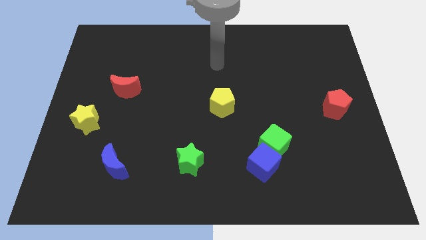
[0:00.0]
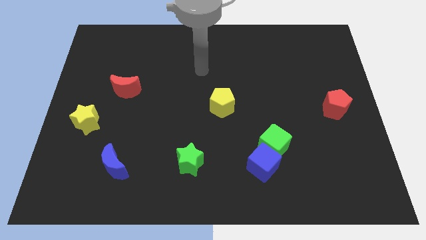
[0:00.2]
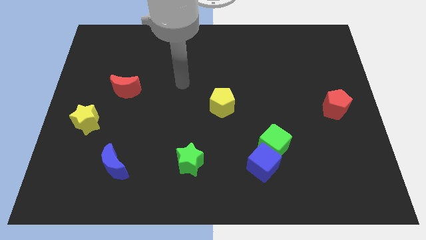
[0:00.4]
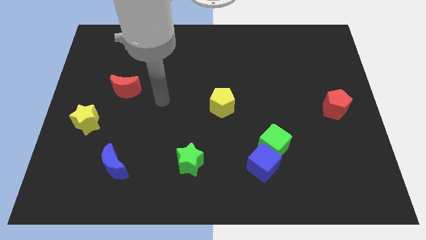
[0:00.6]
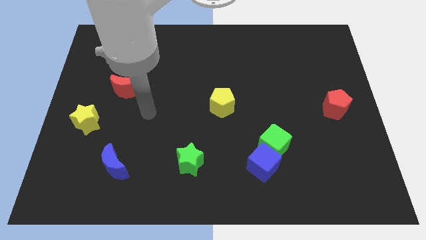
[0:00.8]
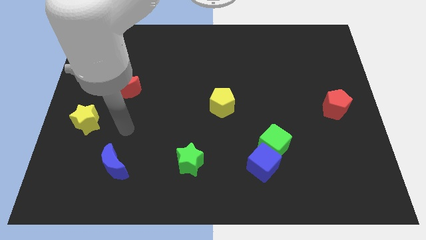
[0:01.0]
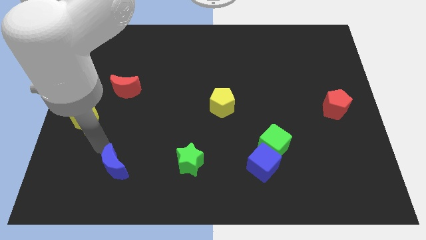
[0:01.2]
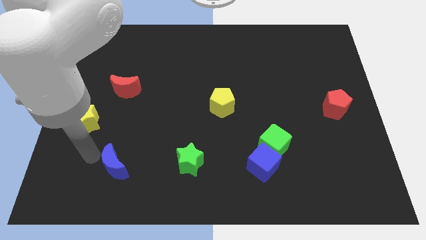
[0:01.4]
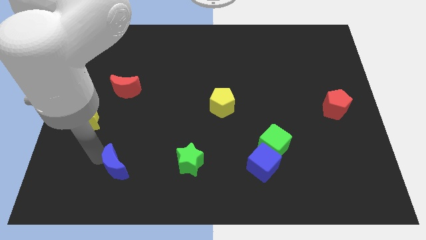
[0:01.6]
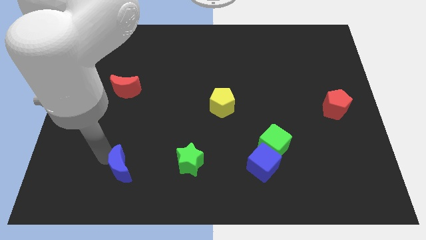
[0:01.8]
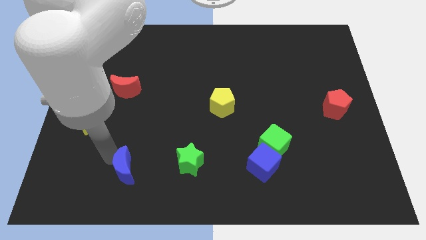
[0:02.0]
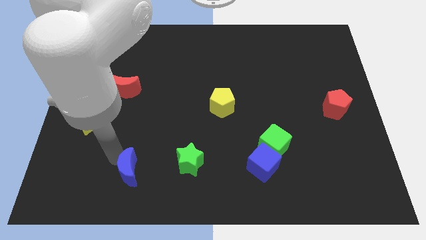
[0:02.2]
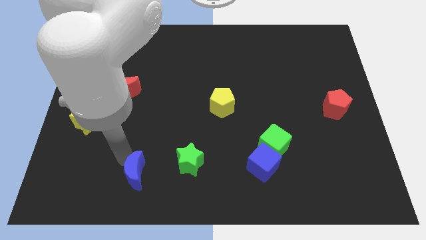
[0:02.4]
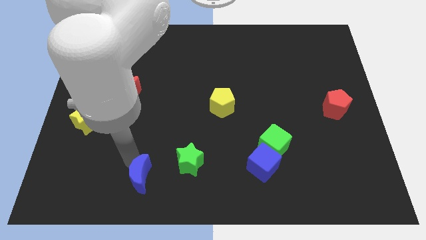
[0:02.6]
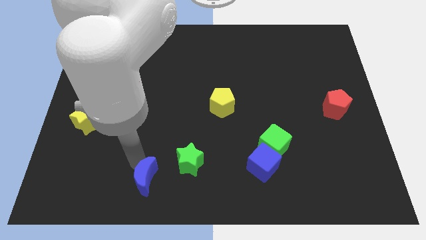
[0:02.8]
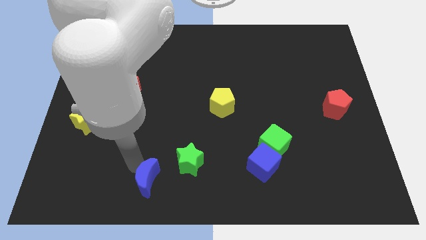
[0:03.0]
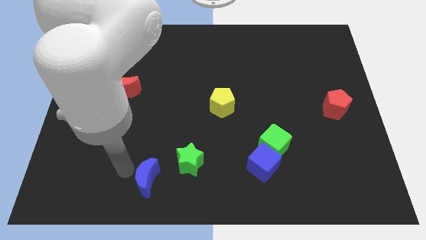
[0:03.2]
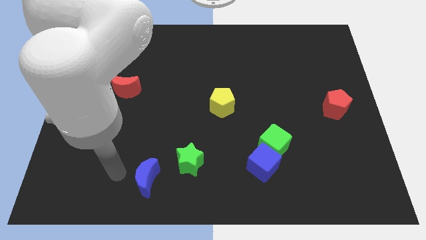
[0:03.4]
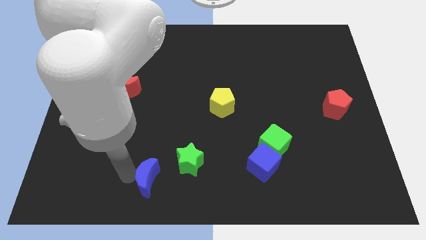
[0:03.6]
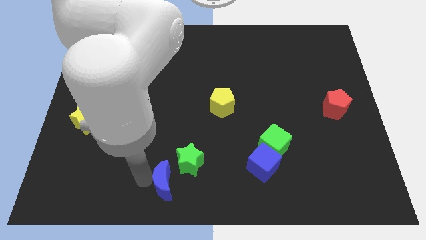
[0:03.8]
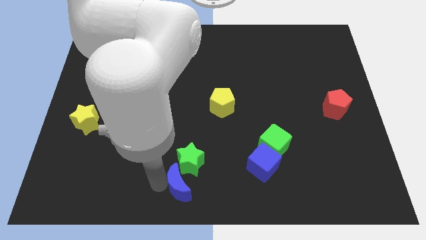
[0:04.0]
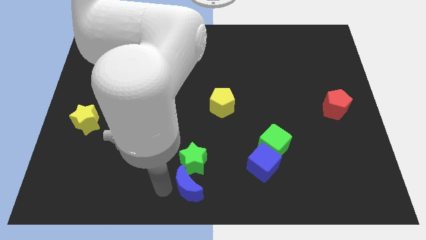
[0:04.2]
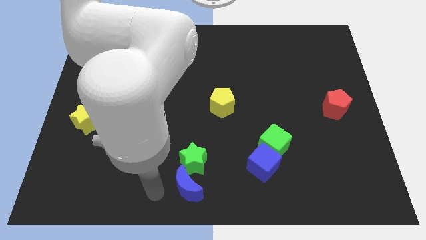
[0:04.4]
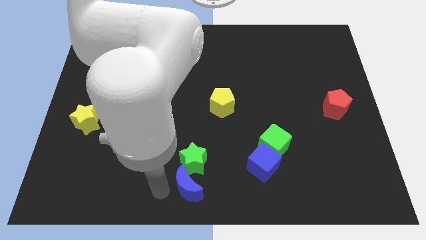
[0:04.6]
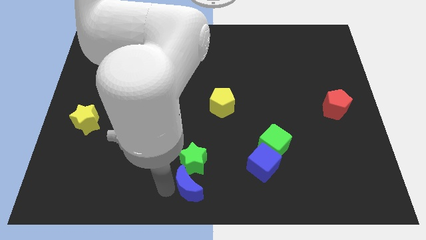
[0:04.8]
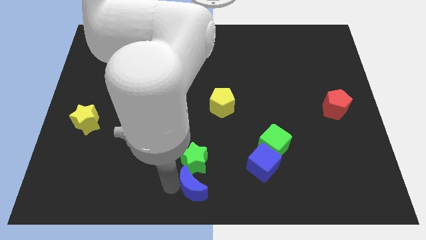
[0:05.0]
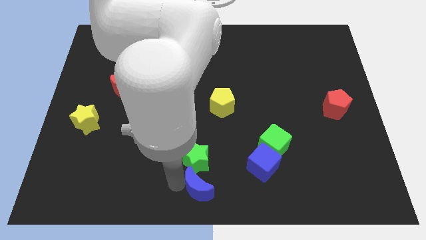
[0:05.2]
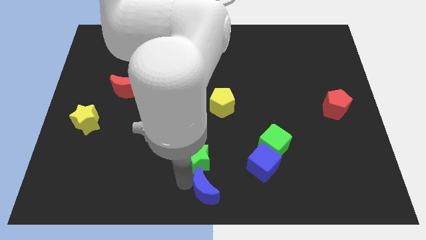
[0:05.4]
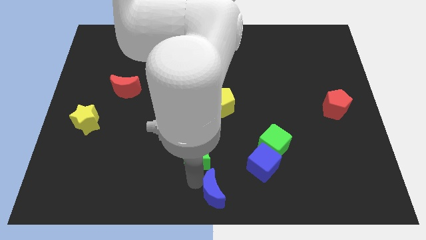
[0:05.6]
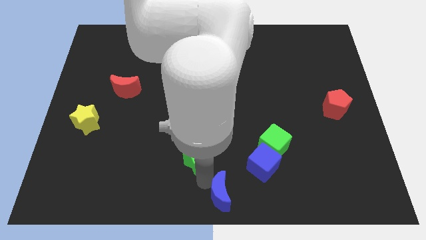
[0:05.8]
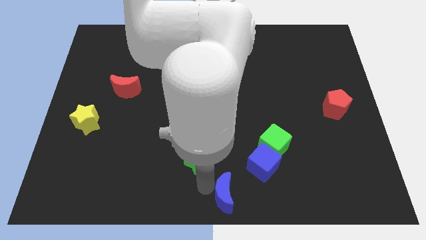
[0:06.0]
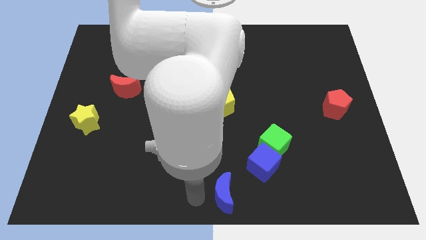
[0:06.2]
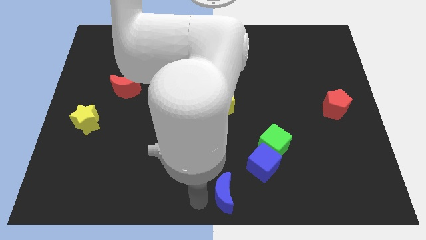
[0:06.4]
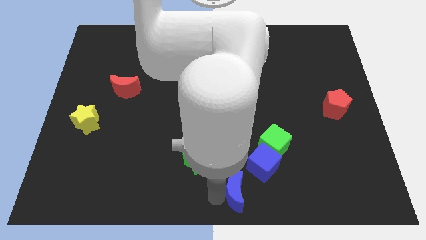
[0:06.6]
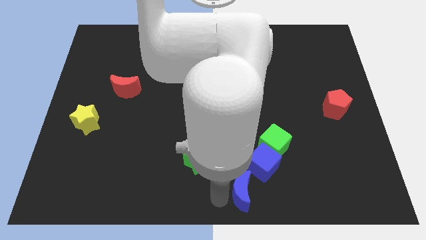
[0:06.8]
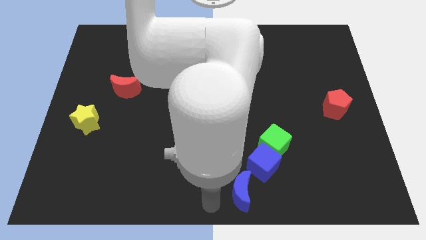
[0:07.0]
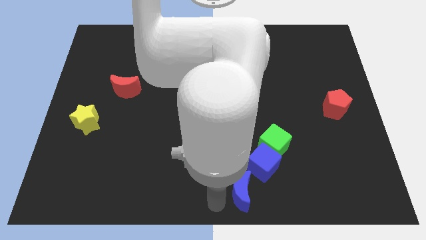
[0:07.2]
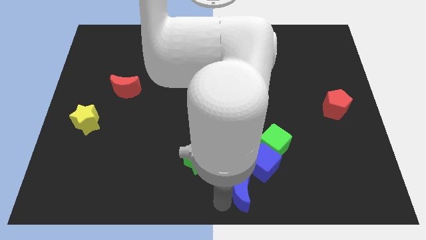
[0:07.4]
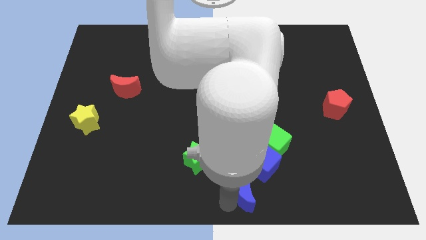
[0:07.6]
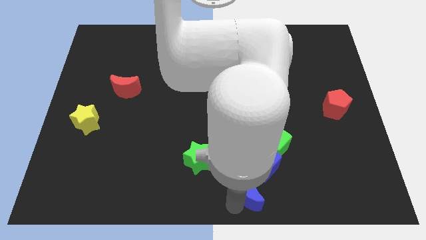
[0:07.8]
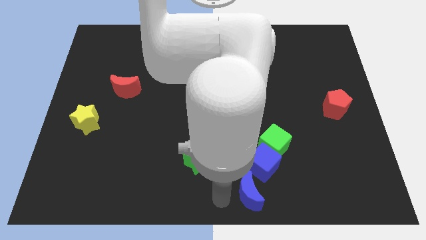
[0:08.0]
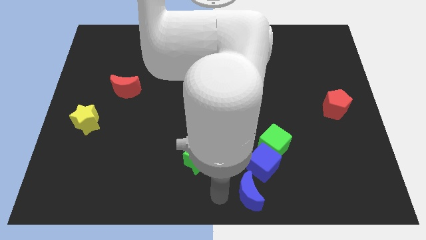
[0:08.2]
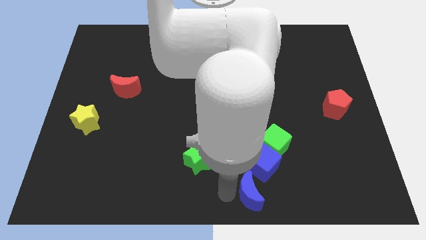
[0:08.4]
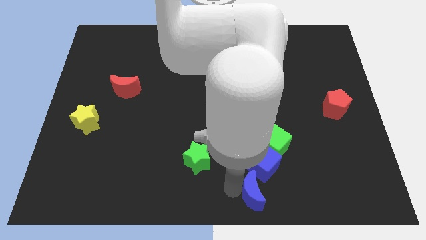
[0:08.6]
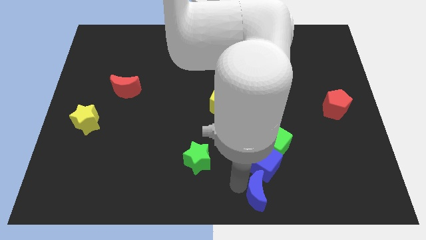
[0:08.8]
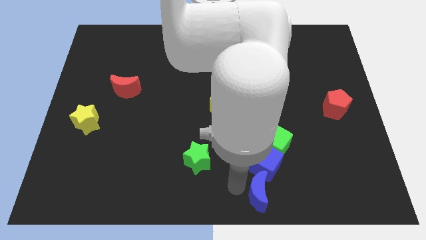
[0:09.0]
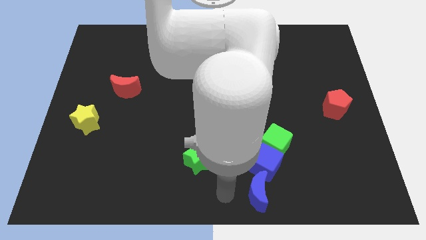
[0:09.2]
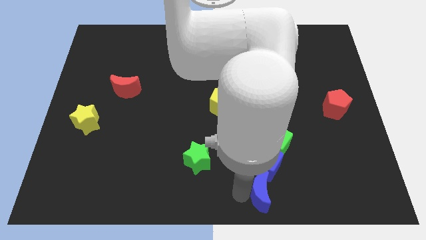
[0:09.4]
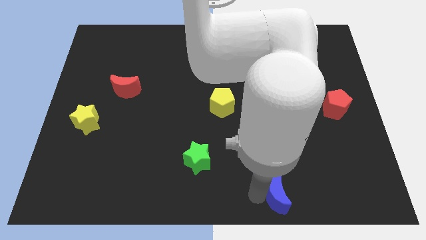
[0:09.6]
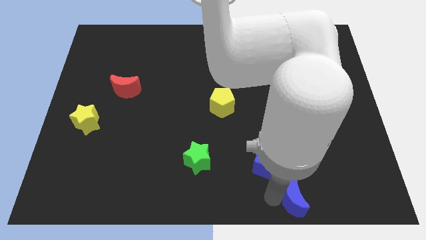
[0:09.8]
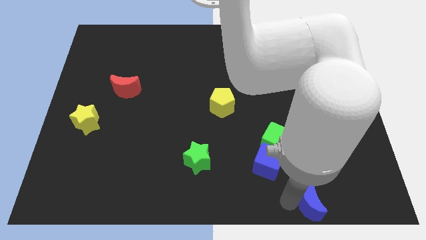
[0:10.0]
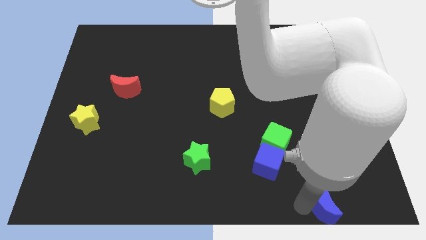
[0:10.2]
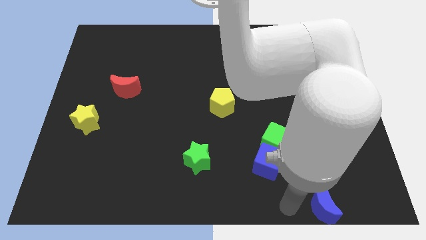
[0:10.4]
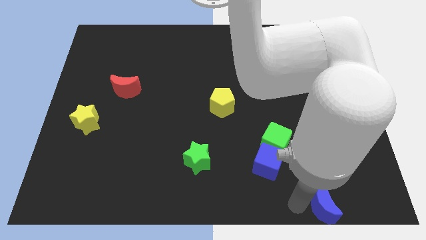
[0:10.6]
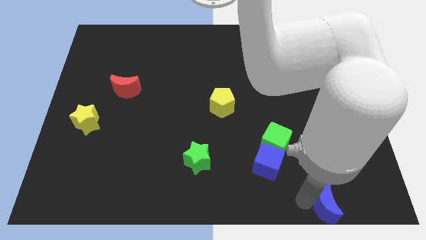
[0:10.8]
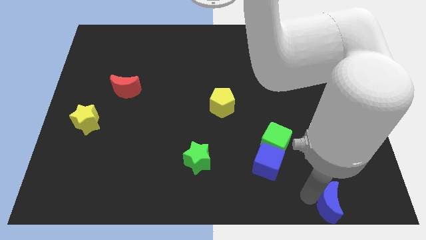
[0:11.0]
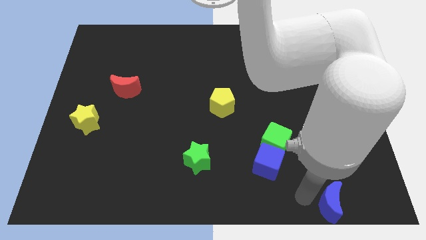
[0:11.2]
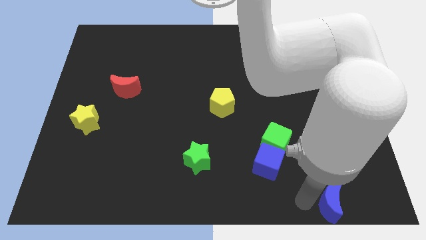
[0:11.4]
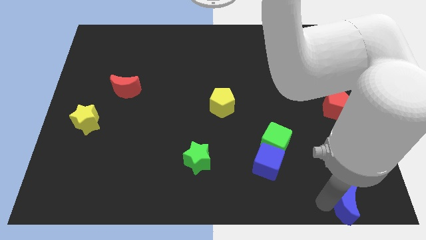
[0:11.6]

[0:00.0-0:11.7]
put the blue moon to the lower right corner

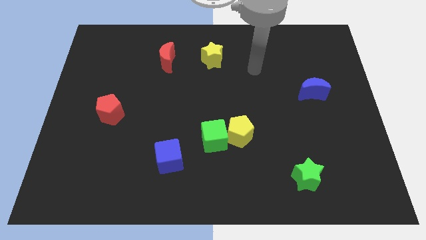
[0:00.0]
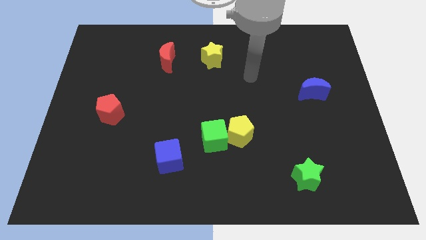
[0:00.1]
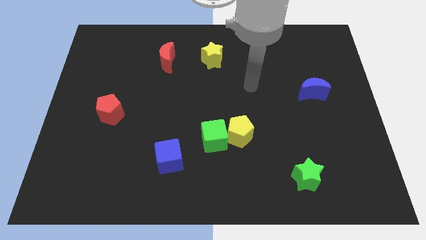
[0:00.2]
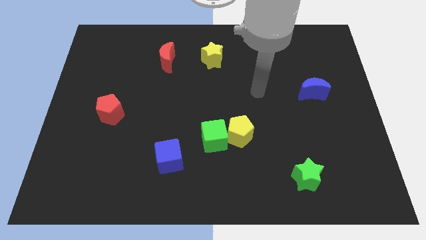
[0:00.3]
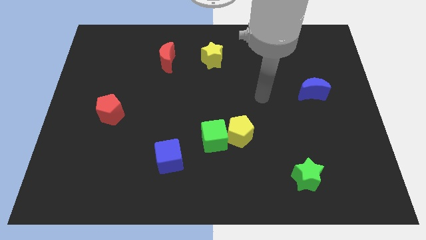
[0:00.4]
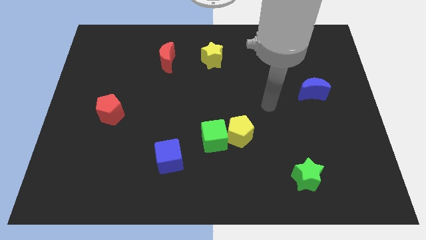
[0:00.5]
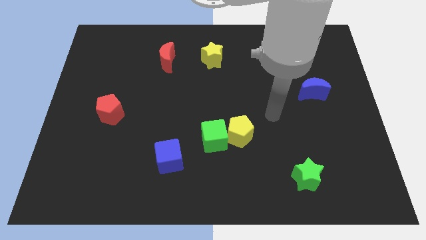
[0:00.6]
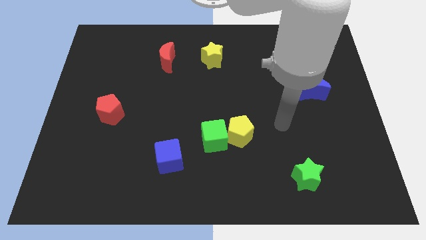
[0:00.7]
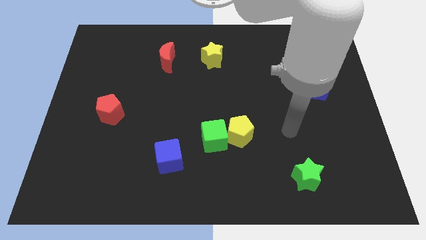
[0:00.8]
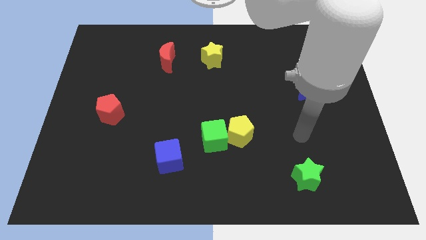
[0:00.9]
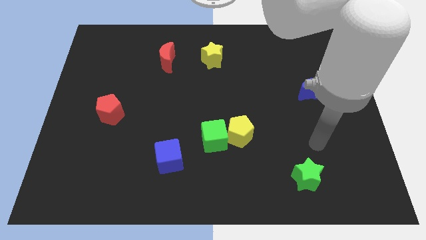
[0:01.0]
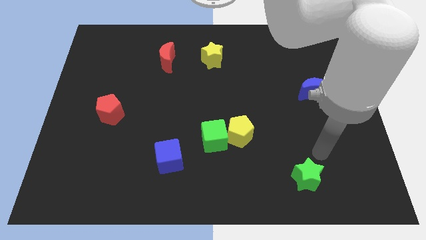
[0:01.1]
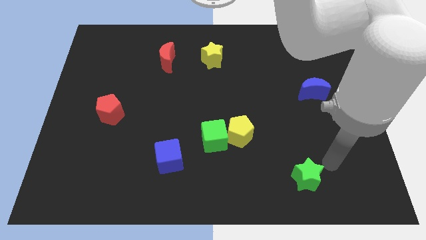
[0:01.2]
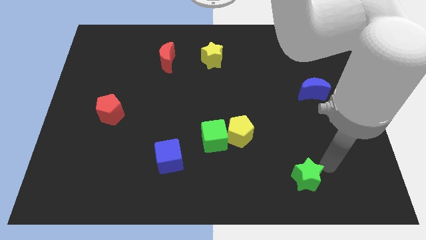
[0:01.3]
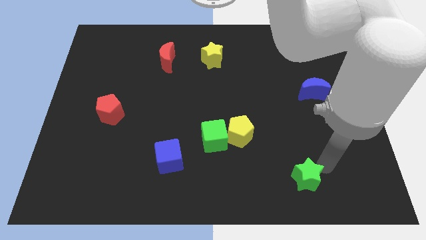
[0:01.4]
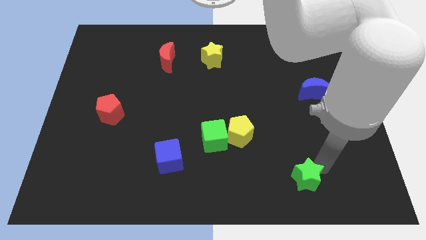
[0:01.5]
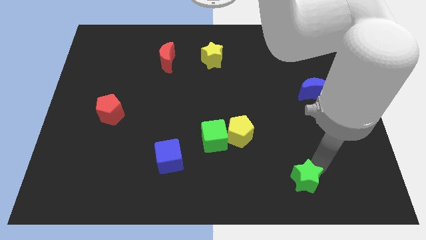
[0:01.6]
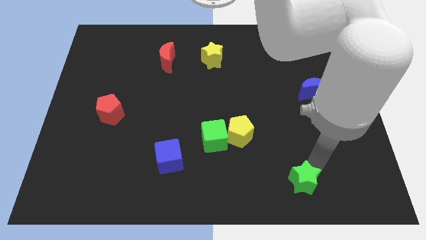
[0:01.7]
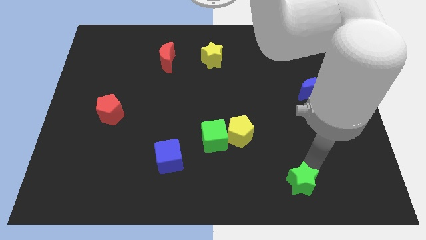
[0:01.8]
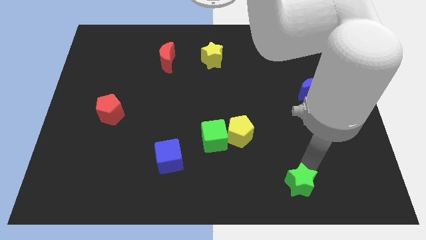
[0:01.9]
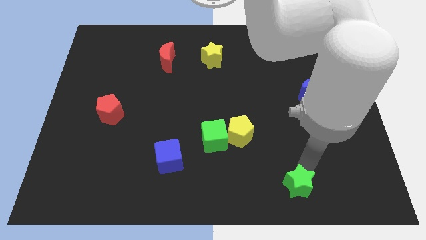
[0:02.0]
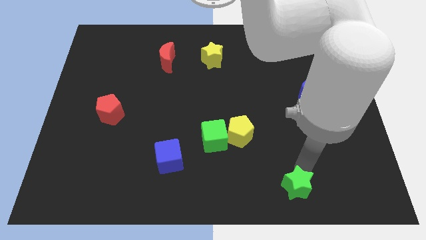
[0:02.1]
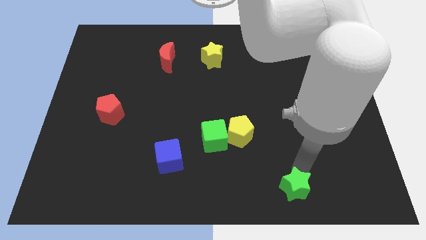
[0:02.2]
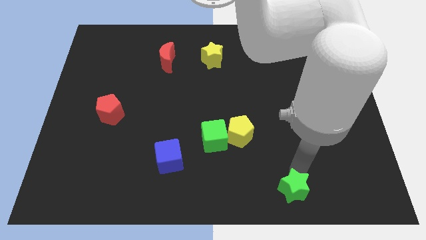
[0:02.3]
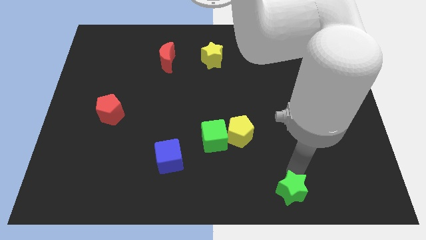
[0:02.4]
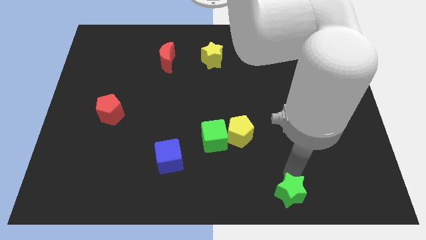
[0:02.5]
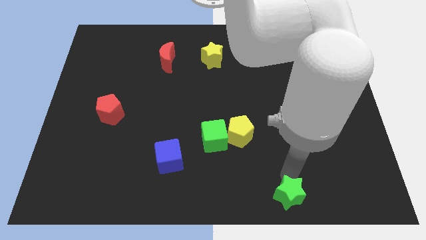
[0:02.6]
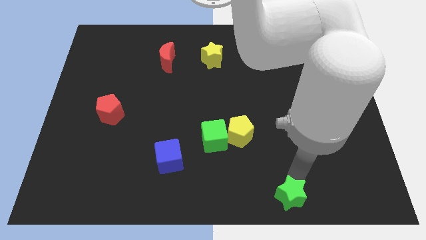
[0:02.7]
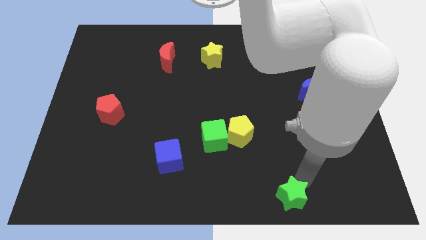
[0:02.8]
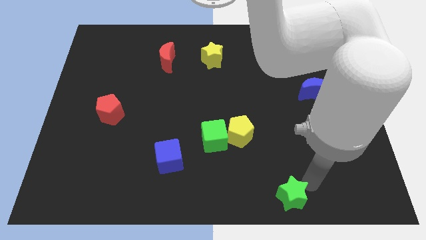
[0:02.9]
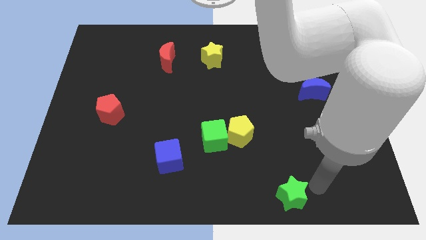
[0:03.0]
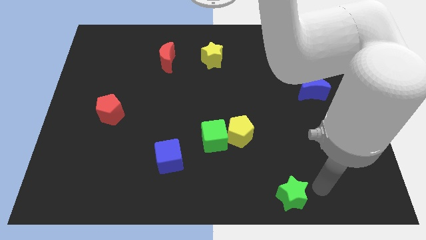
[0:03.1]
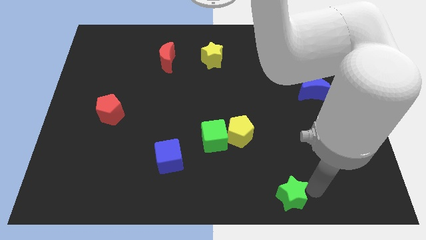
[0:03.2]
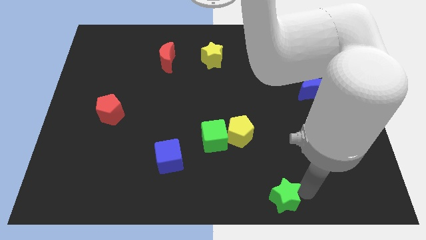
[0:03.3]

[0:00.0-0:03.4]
slide the green star to the bottom side
